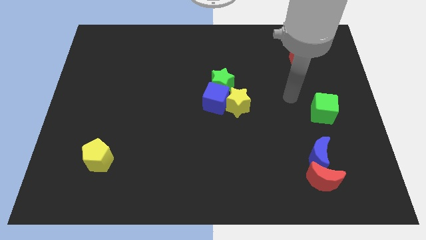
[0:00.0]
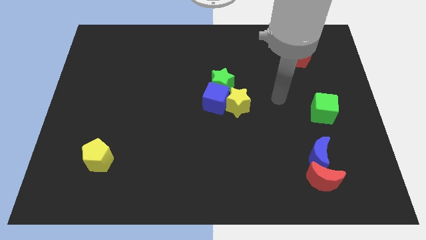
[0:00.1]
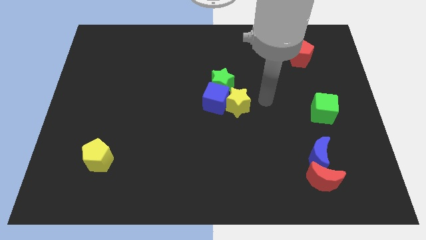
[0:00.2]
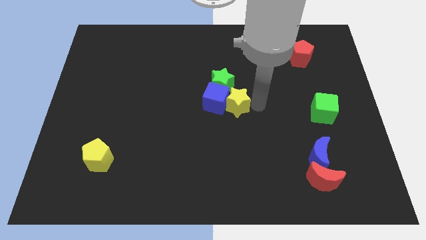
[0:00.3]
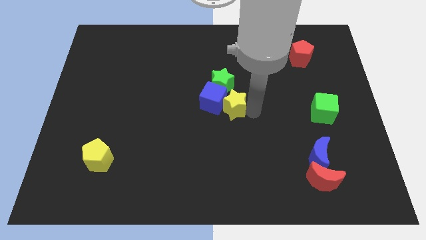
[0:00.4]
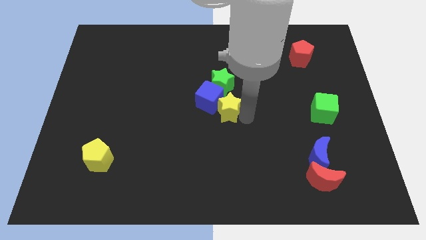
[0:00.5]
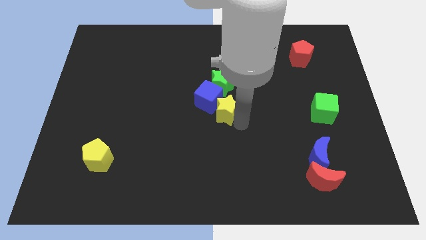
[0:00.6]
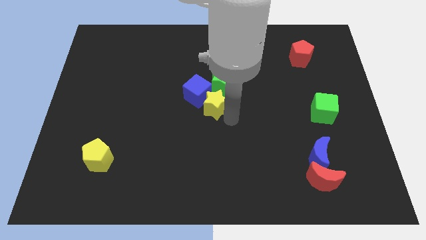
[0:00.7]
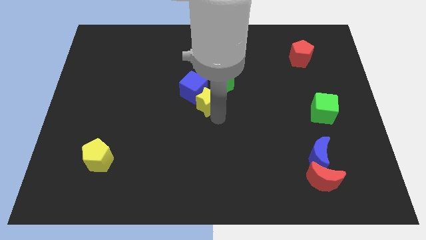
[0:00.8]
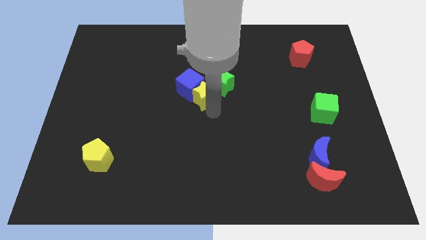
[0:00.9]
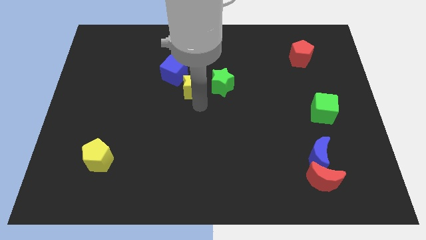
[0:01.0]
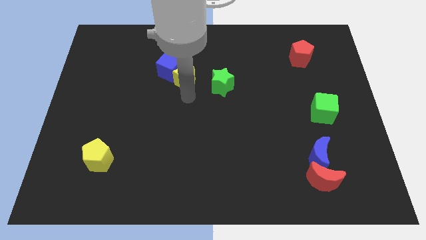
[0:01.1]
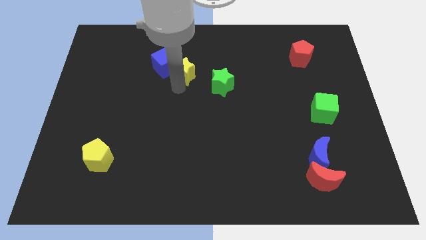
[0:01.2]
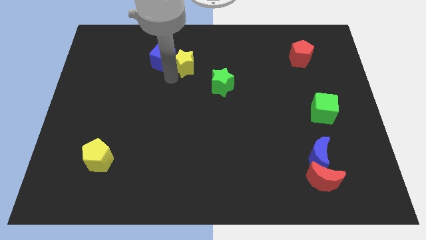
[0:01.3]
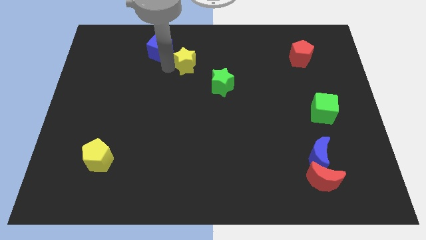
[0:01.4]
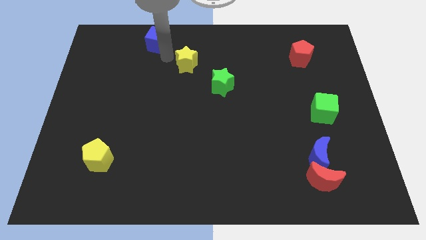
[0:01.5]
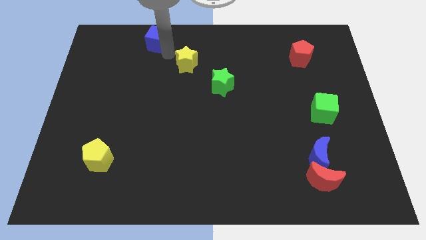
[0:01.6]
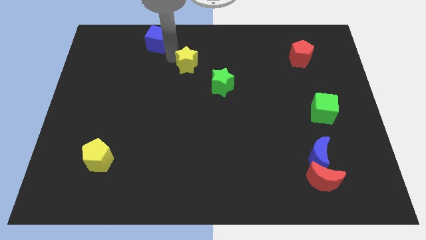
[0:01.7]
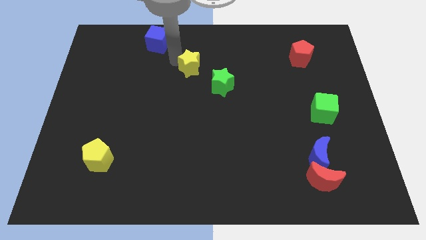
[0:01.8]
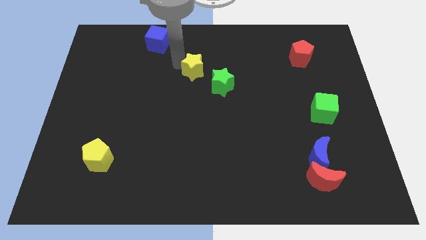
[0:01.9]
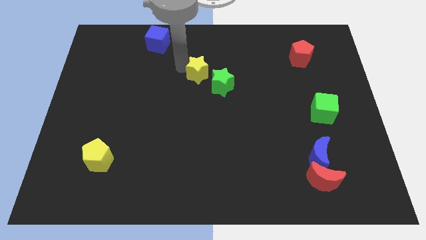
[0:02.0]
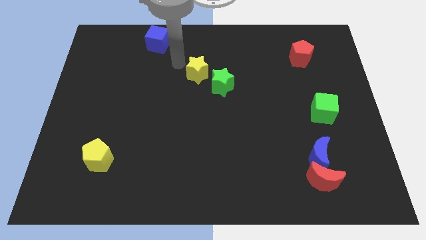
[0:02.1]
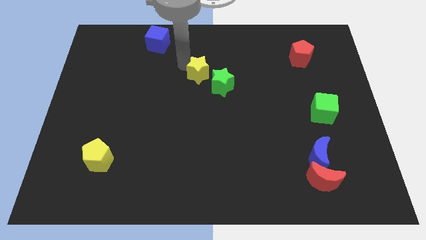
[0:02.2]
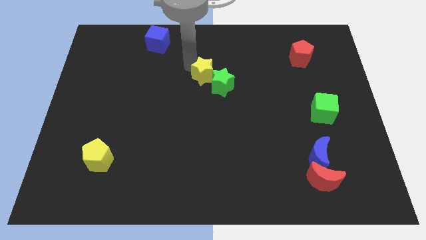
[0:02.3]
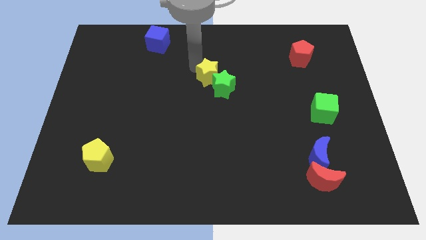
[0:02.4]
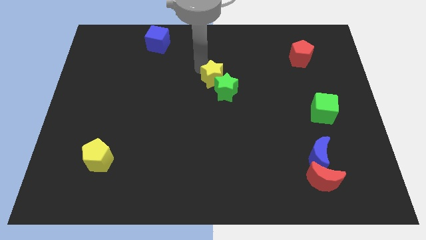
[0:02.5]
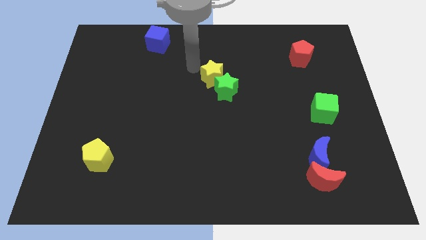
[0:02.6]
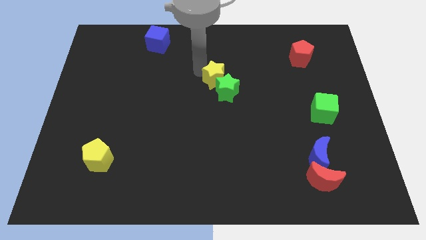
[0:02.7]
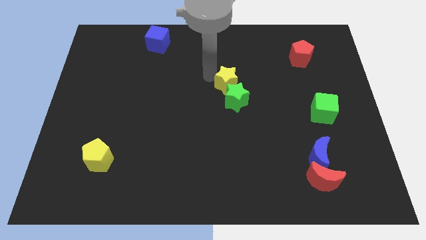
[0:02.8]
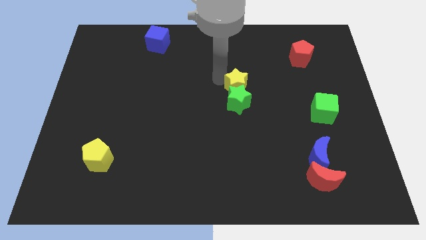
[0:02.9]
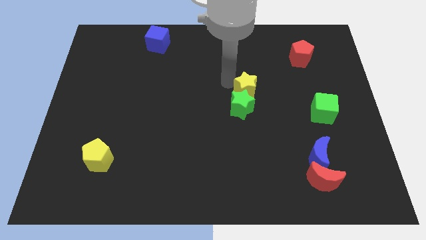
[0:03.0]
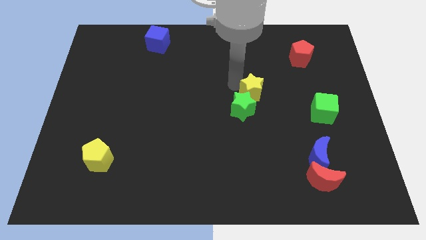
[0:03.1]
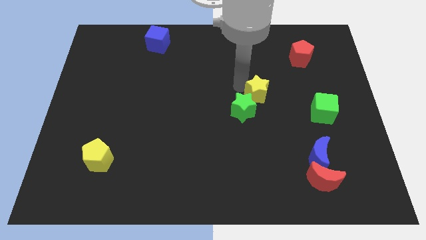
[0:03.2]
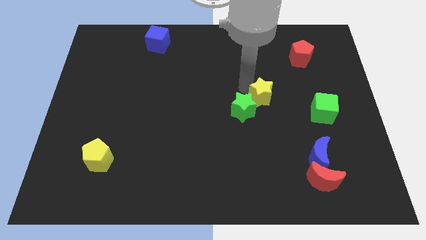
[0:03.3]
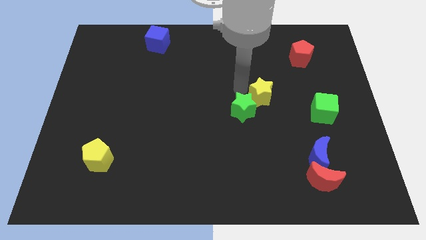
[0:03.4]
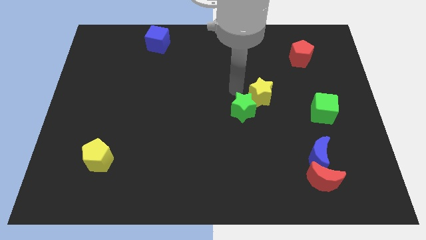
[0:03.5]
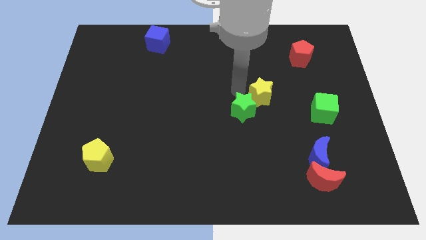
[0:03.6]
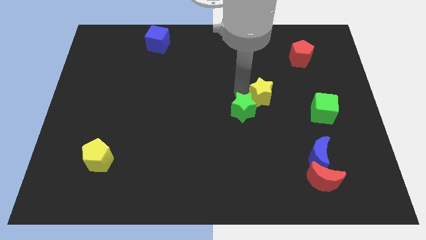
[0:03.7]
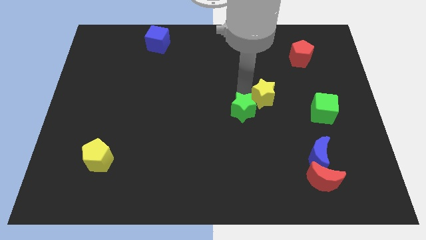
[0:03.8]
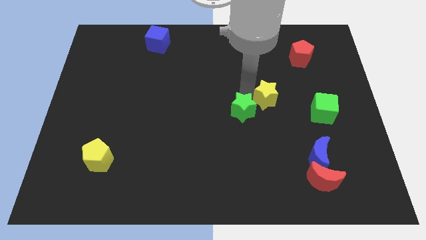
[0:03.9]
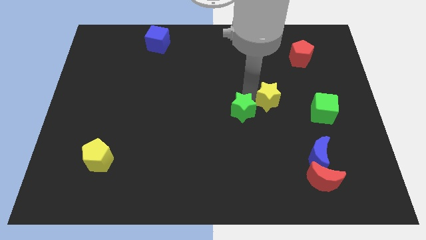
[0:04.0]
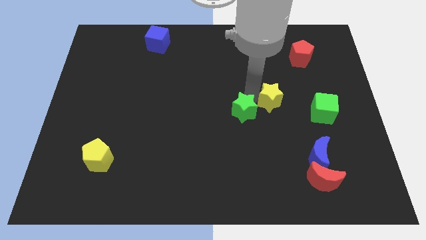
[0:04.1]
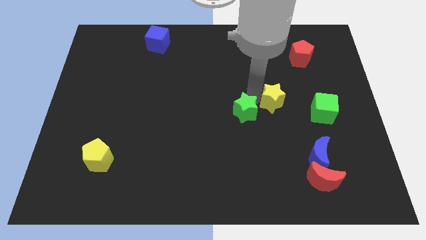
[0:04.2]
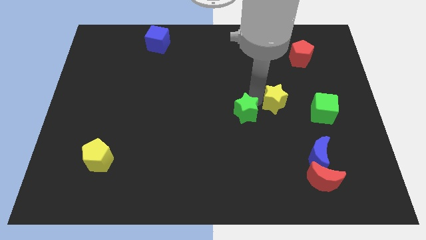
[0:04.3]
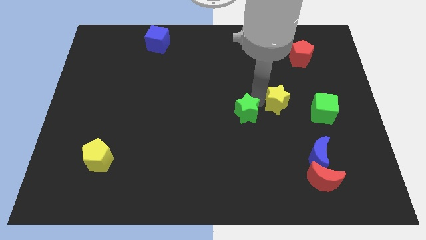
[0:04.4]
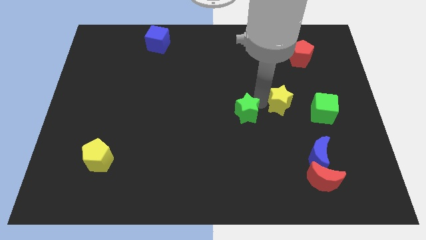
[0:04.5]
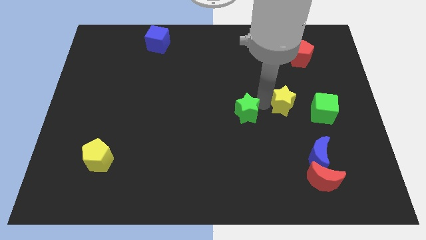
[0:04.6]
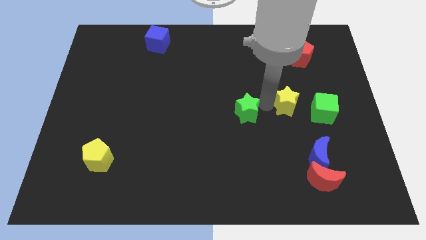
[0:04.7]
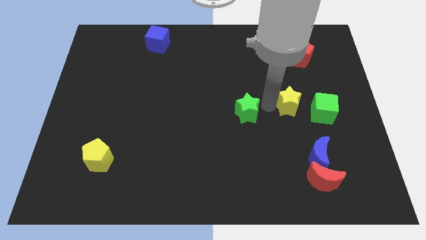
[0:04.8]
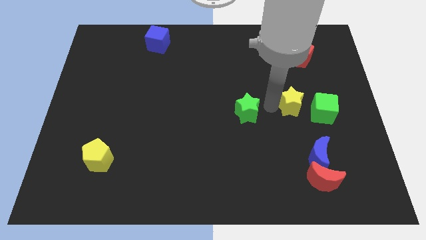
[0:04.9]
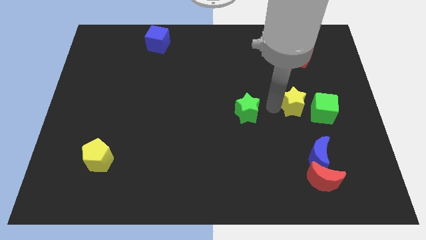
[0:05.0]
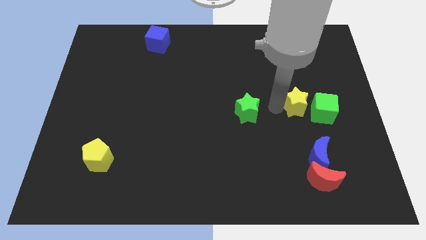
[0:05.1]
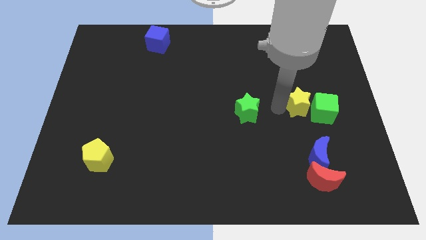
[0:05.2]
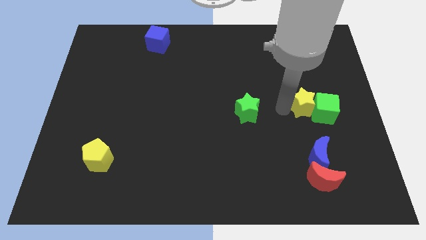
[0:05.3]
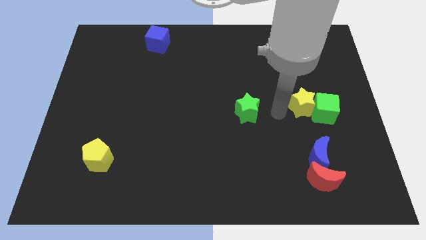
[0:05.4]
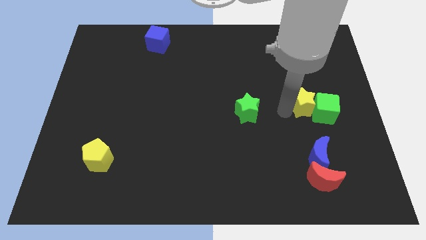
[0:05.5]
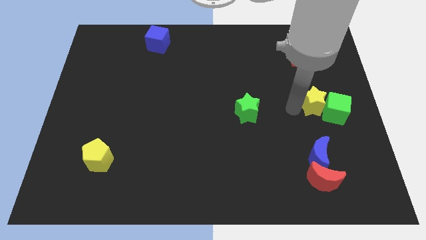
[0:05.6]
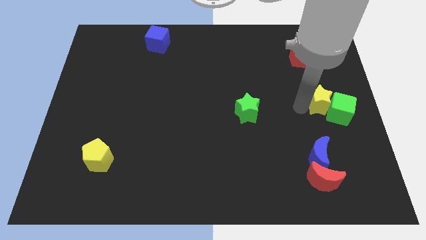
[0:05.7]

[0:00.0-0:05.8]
move the yellow star to the right side of the board
